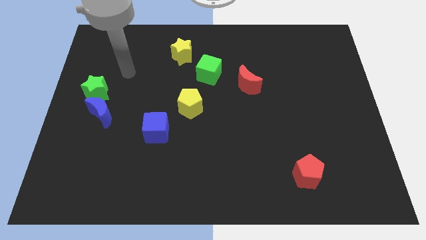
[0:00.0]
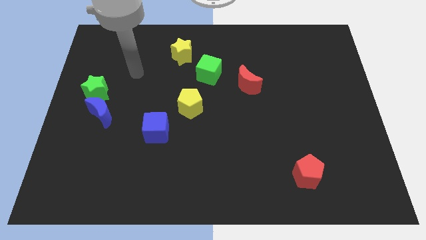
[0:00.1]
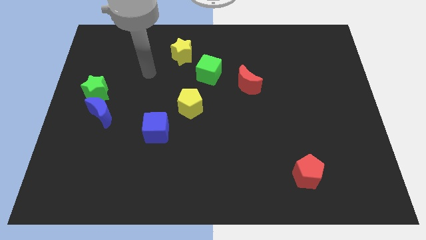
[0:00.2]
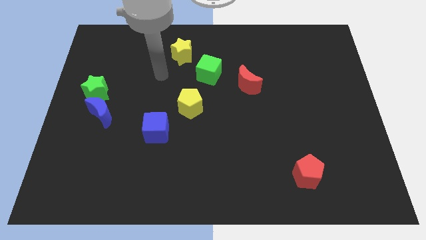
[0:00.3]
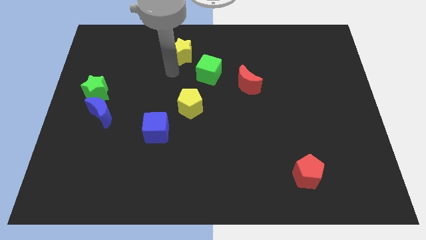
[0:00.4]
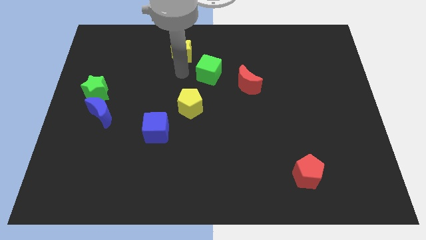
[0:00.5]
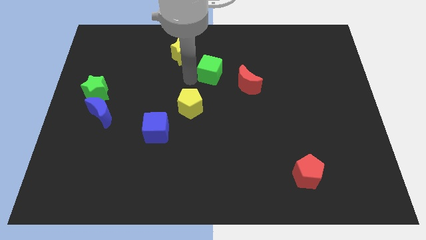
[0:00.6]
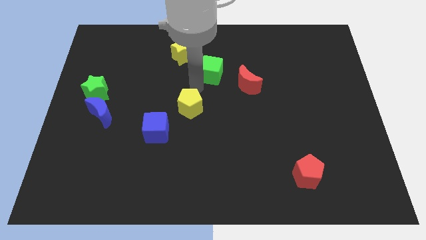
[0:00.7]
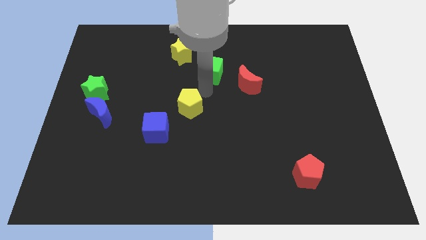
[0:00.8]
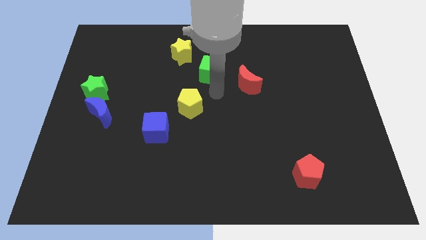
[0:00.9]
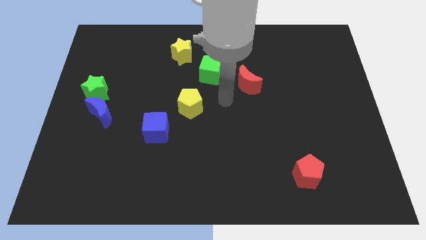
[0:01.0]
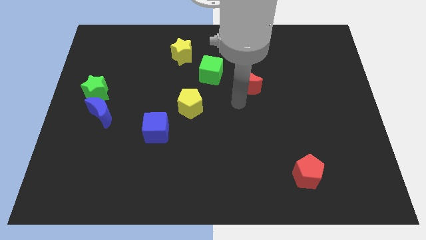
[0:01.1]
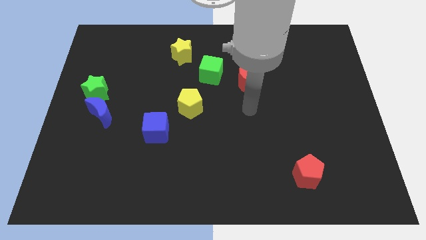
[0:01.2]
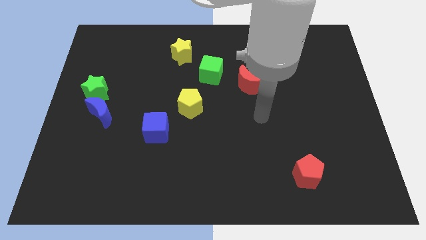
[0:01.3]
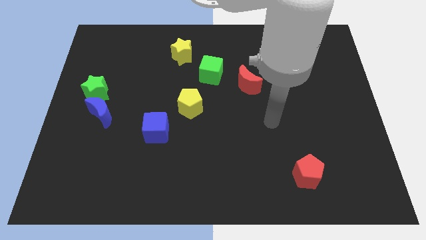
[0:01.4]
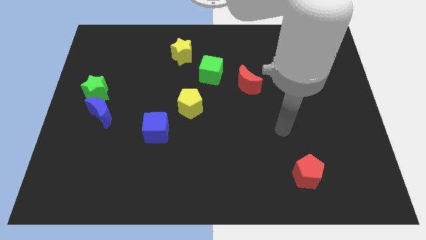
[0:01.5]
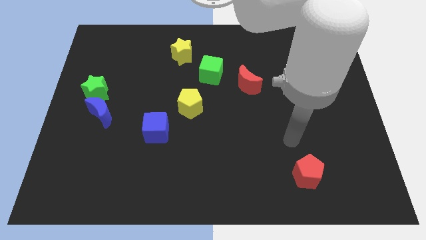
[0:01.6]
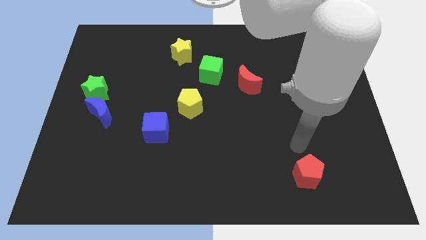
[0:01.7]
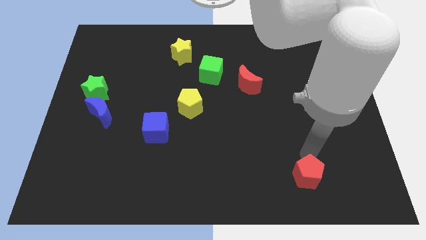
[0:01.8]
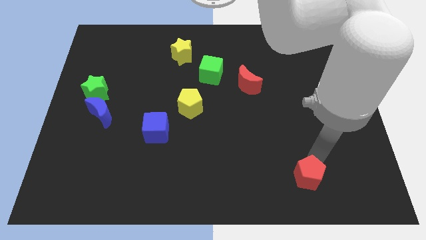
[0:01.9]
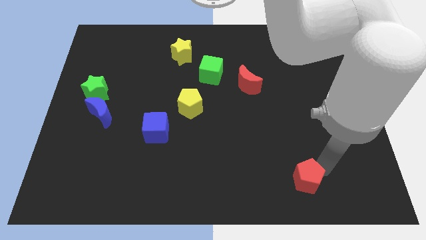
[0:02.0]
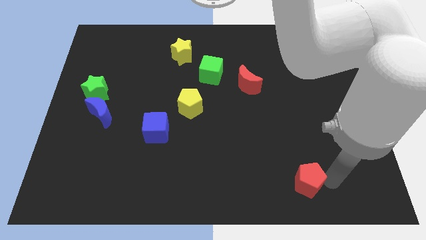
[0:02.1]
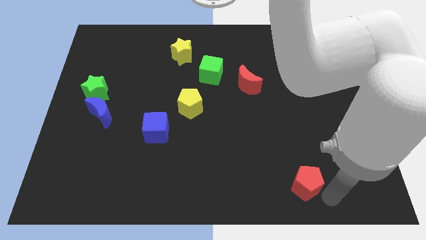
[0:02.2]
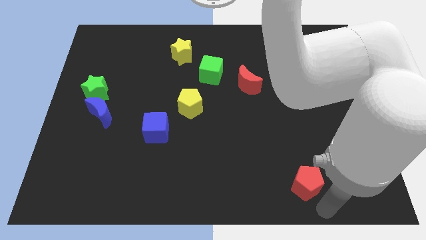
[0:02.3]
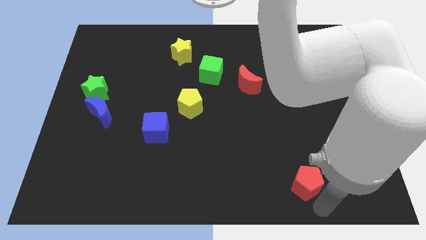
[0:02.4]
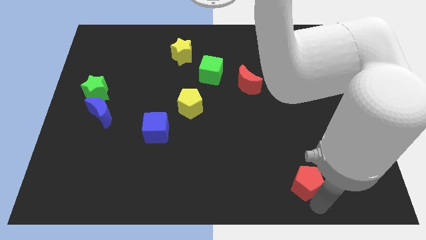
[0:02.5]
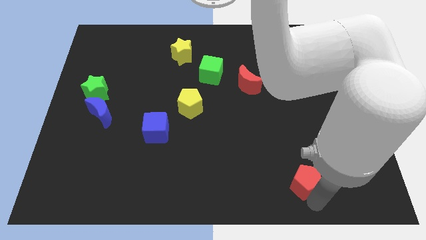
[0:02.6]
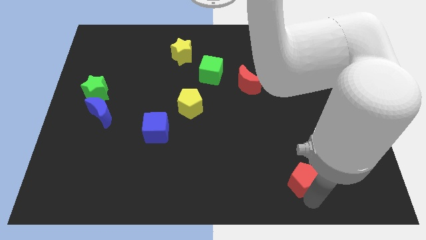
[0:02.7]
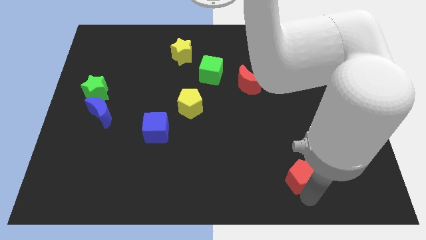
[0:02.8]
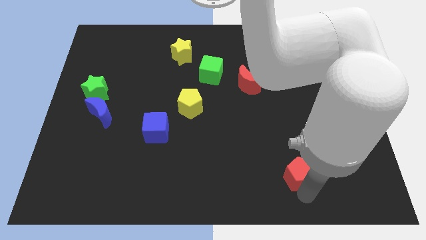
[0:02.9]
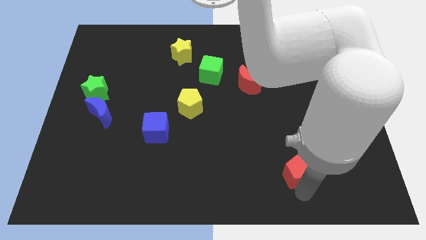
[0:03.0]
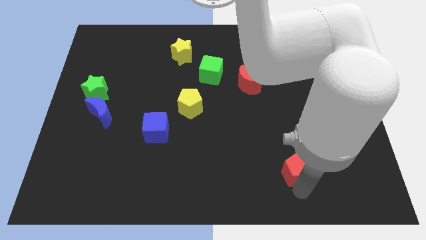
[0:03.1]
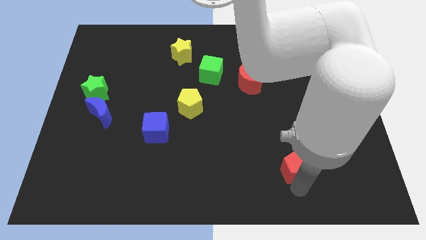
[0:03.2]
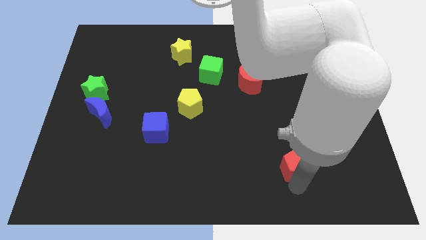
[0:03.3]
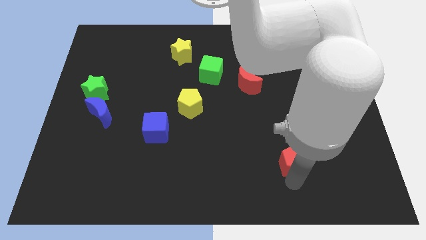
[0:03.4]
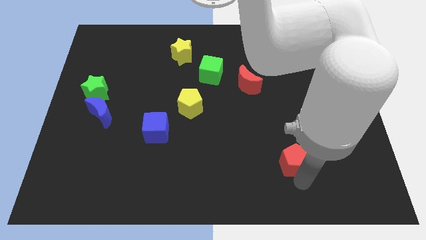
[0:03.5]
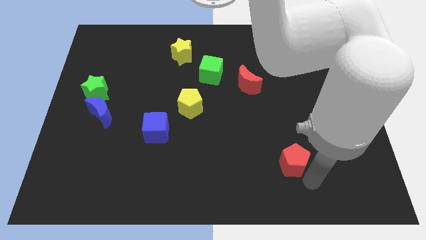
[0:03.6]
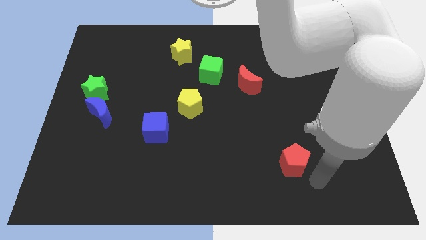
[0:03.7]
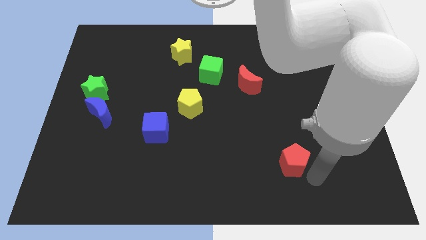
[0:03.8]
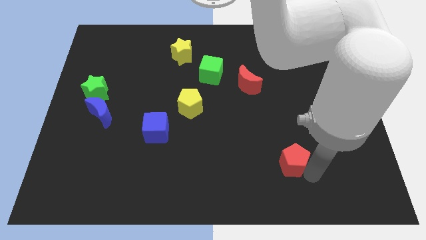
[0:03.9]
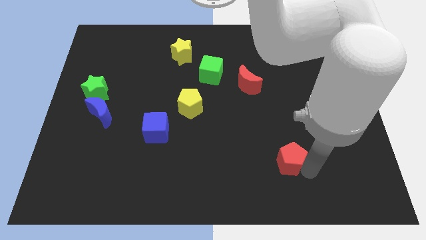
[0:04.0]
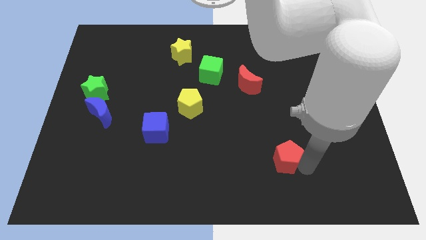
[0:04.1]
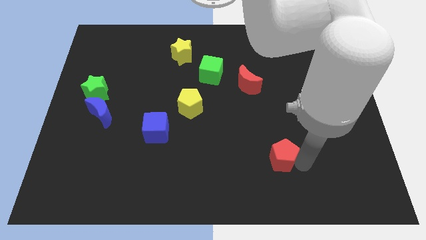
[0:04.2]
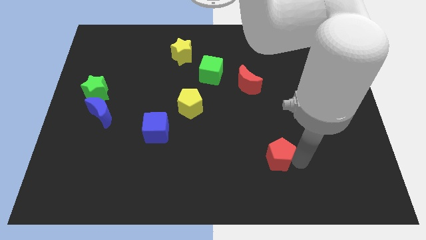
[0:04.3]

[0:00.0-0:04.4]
move the red pentagon slightly up and to the left diagonally

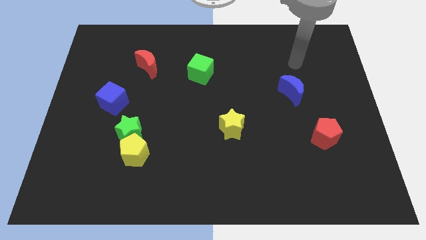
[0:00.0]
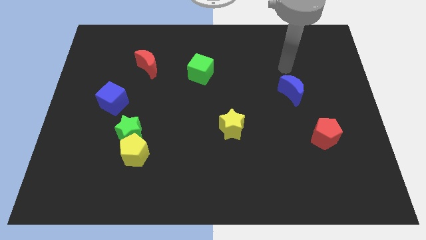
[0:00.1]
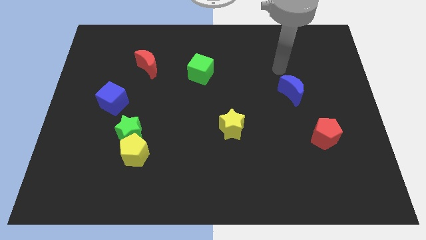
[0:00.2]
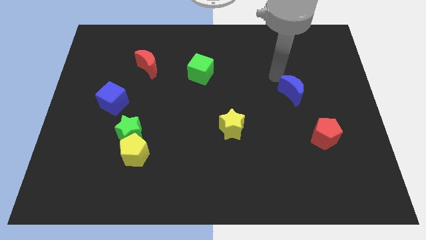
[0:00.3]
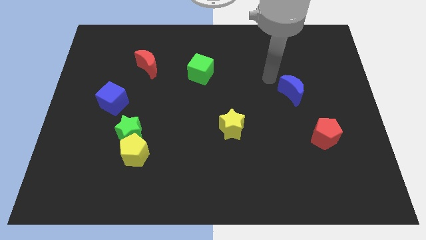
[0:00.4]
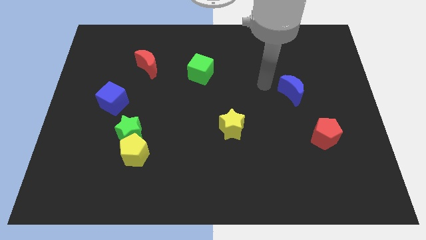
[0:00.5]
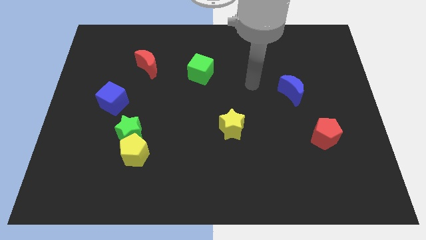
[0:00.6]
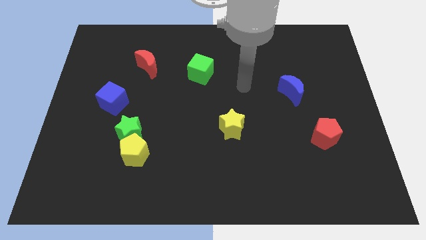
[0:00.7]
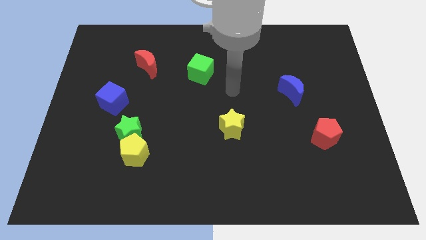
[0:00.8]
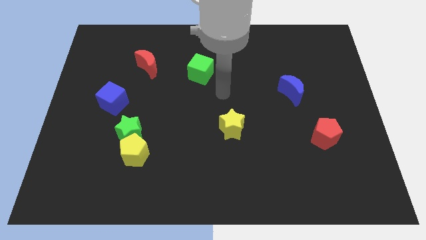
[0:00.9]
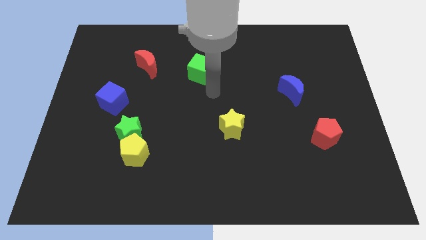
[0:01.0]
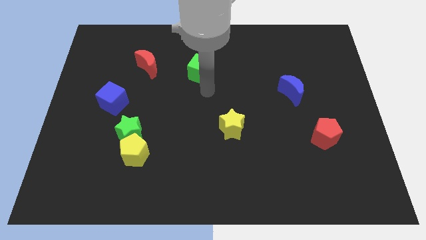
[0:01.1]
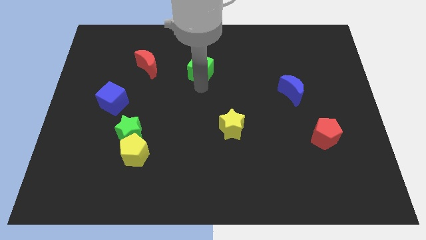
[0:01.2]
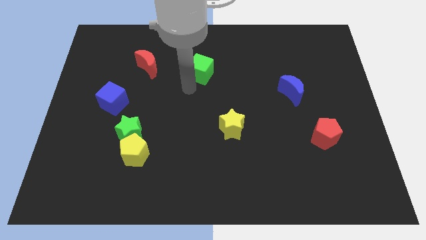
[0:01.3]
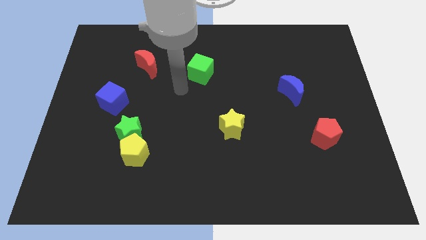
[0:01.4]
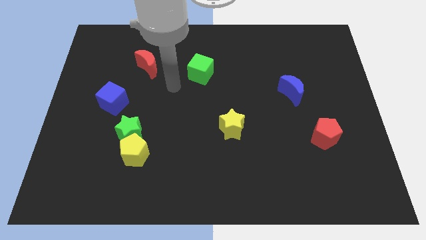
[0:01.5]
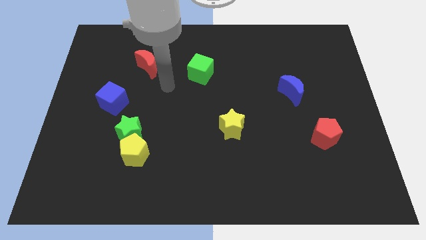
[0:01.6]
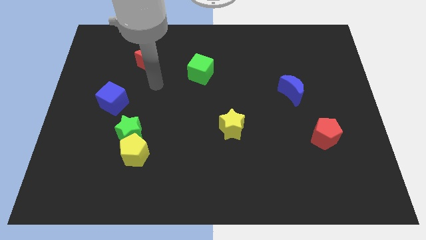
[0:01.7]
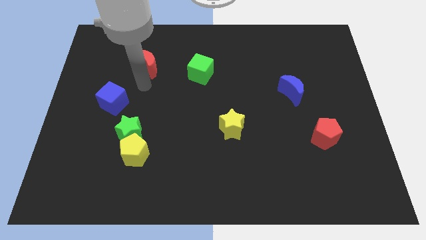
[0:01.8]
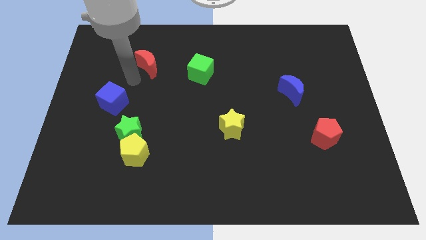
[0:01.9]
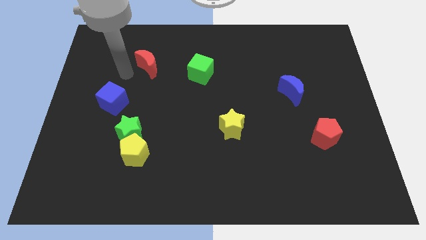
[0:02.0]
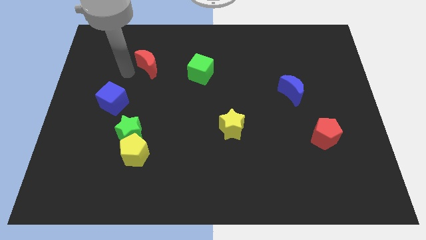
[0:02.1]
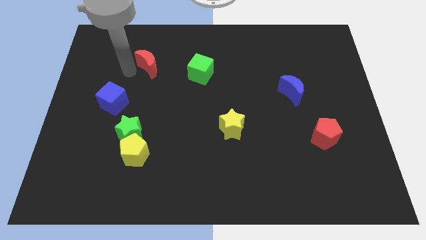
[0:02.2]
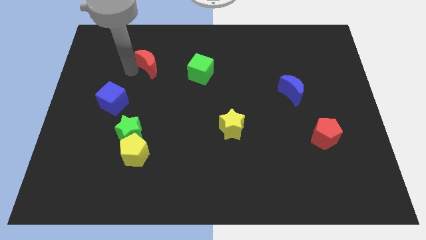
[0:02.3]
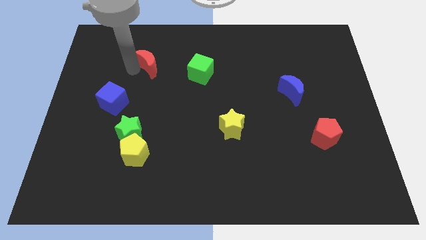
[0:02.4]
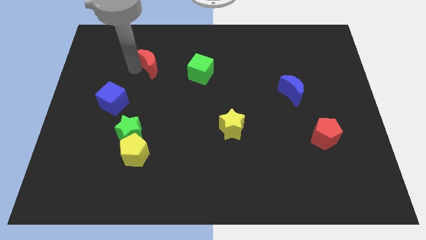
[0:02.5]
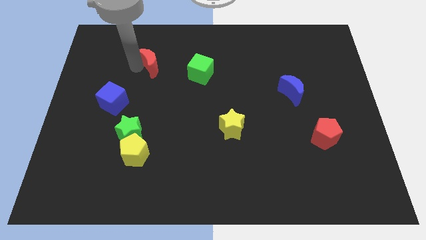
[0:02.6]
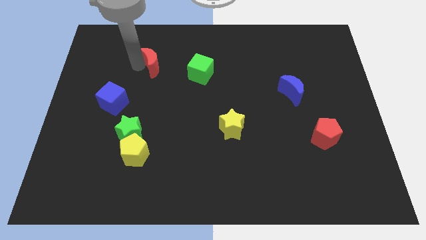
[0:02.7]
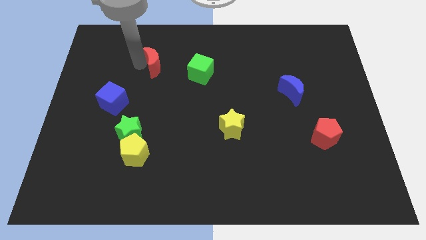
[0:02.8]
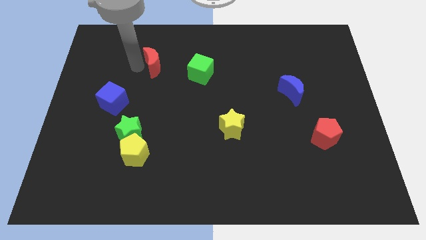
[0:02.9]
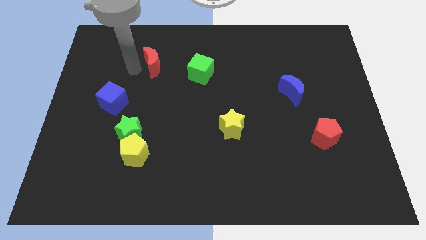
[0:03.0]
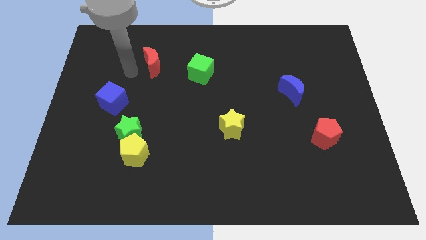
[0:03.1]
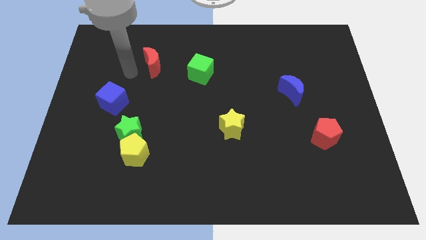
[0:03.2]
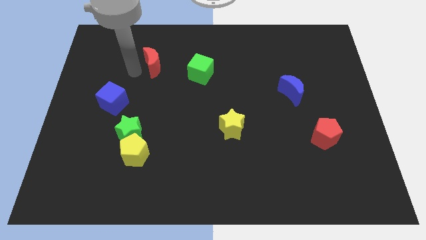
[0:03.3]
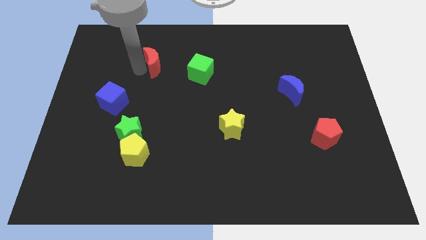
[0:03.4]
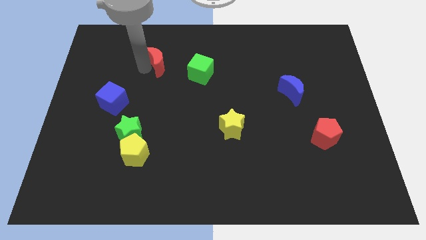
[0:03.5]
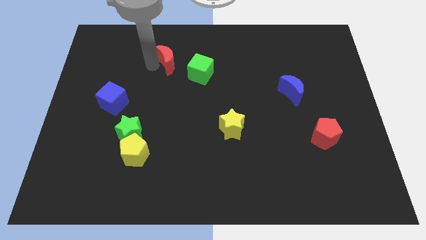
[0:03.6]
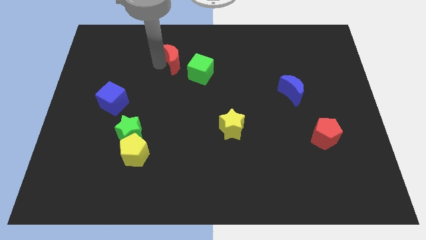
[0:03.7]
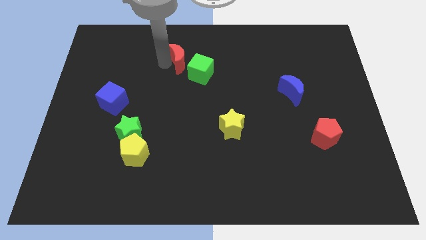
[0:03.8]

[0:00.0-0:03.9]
slide the red moon somewhat to the right

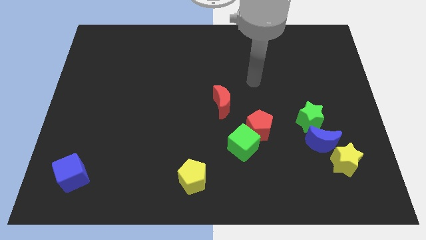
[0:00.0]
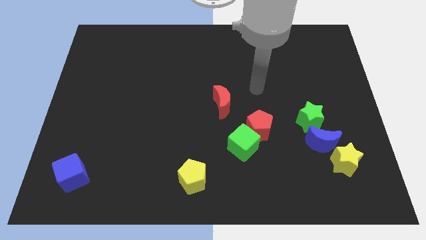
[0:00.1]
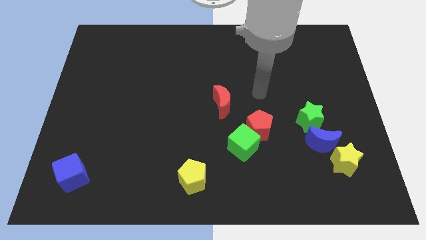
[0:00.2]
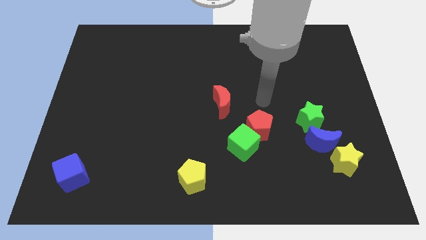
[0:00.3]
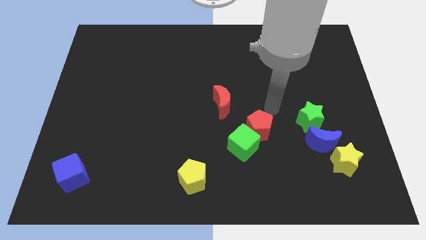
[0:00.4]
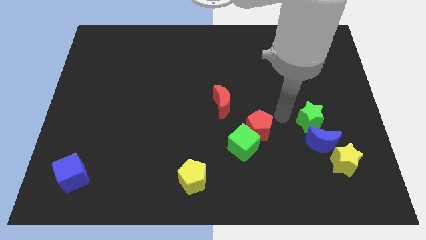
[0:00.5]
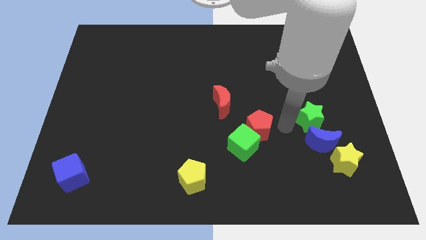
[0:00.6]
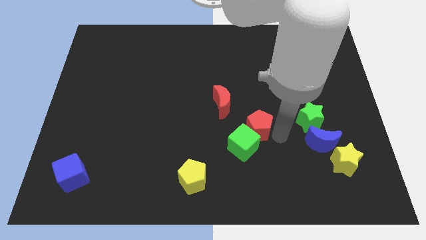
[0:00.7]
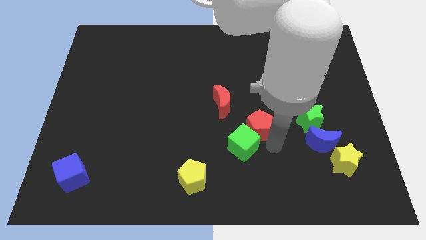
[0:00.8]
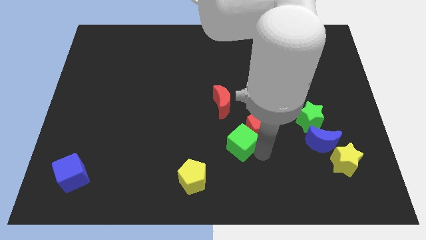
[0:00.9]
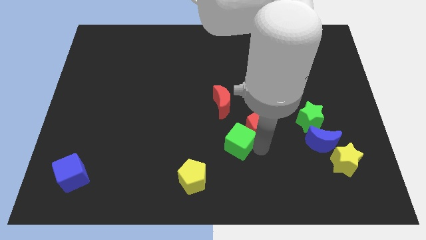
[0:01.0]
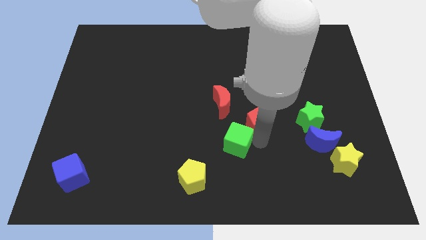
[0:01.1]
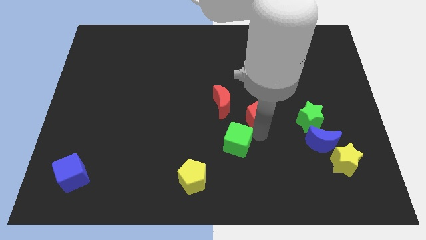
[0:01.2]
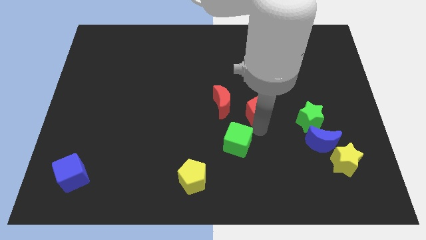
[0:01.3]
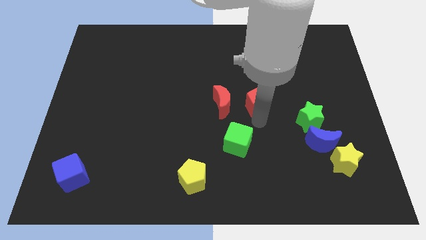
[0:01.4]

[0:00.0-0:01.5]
push the red pentagon upwards a little
